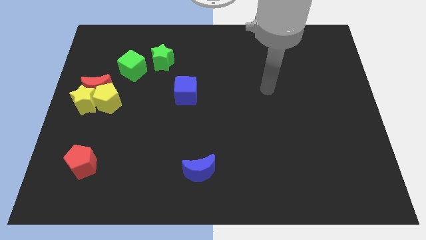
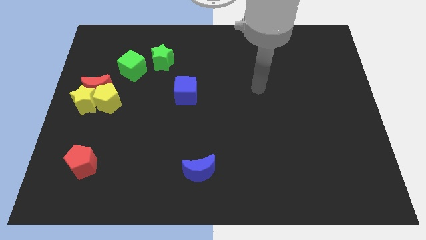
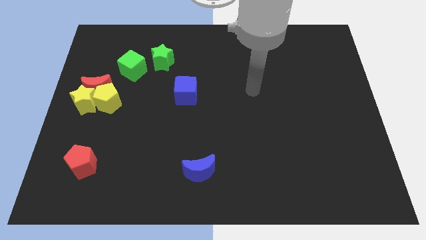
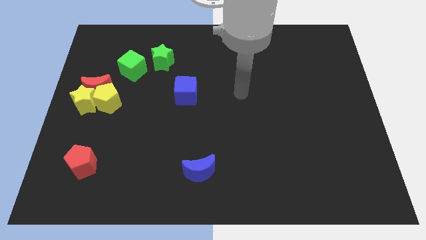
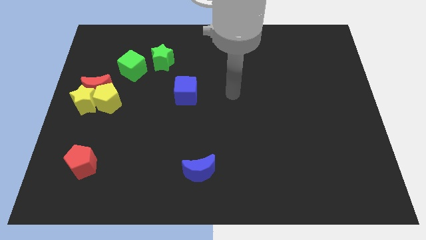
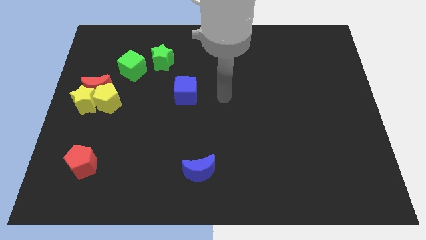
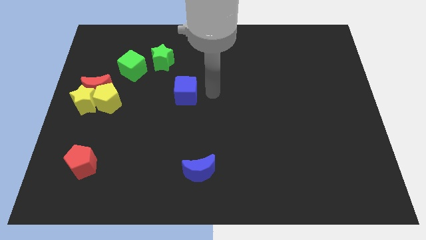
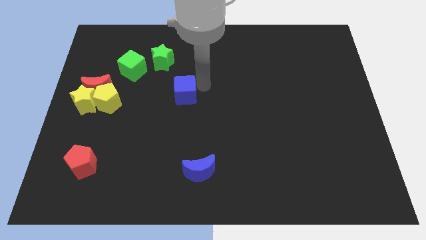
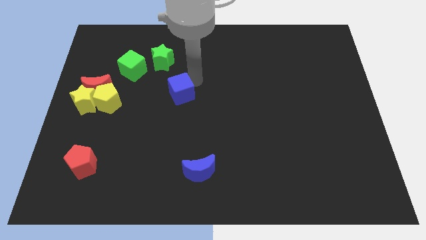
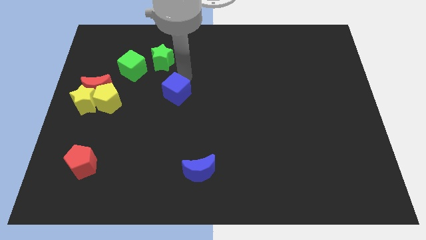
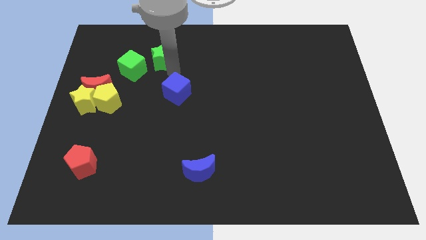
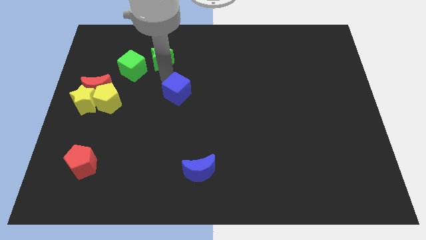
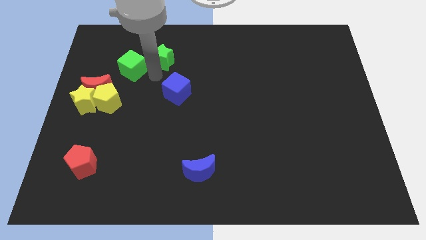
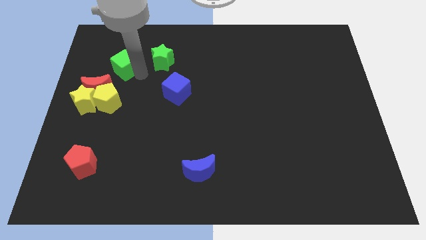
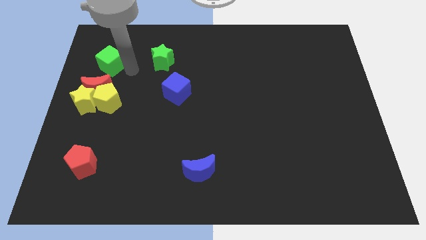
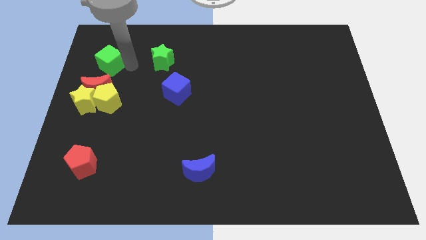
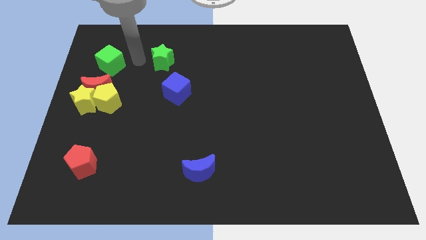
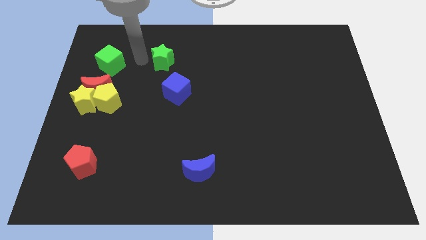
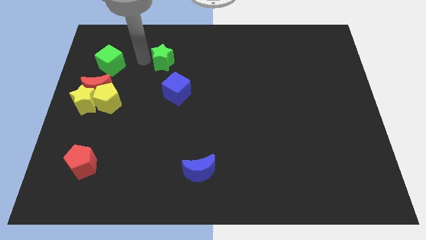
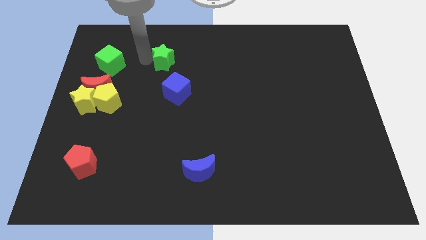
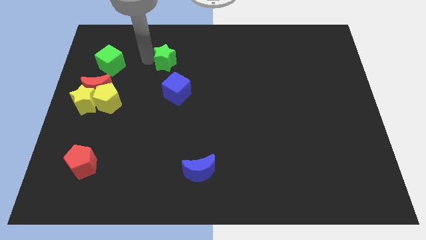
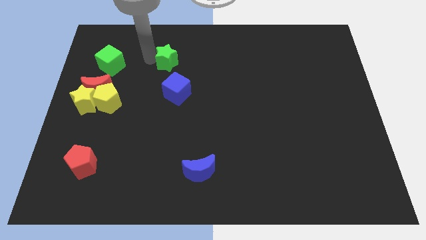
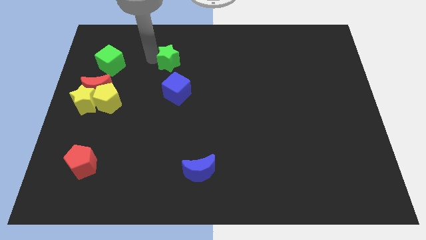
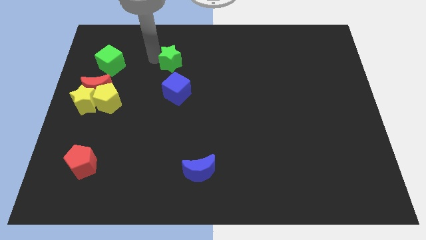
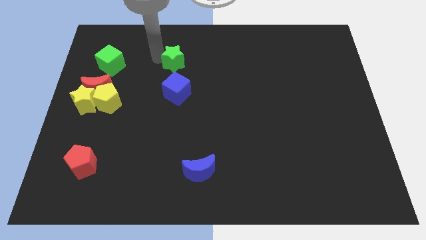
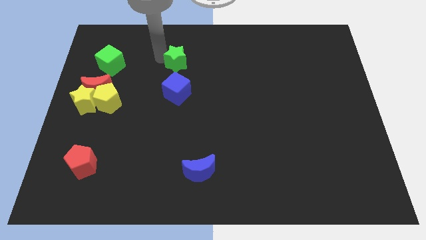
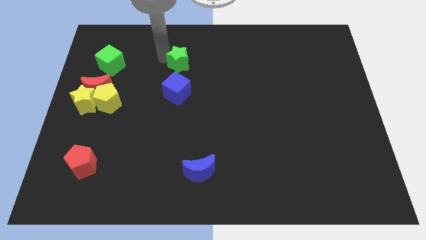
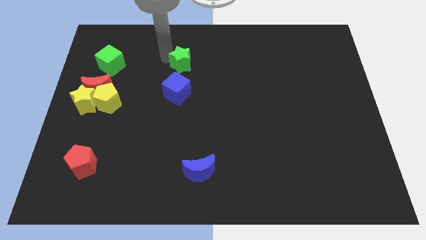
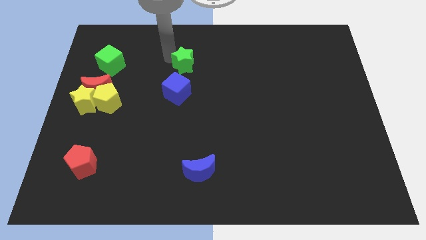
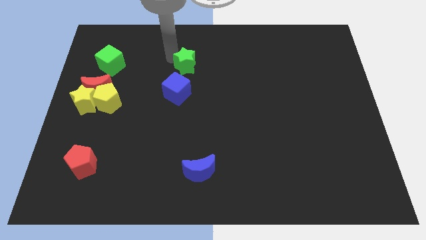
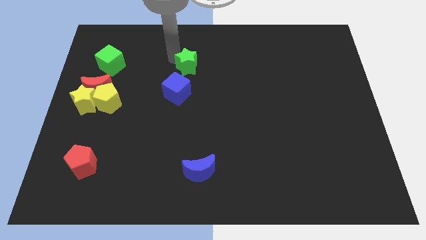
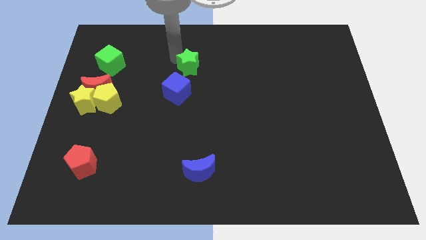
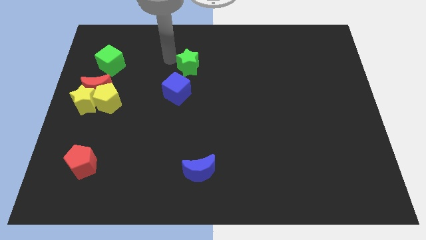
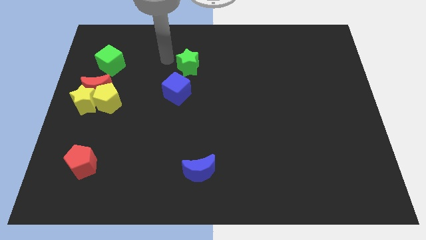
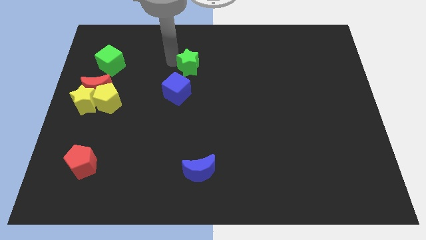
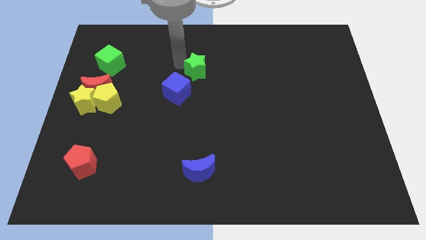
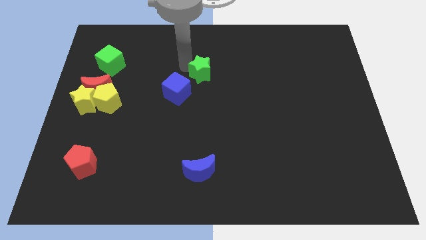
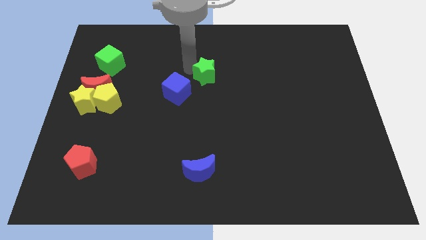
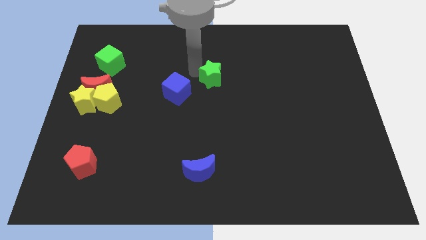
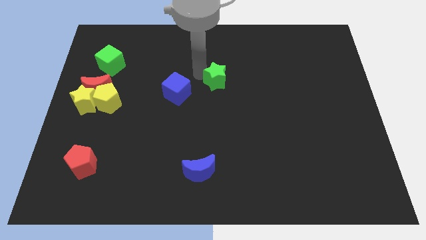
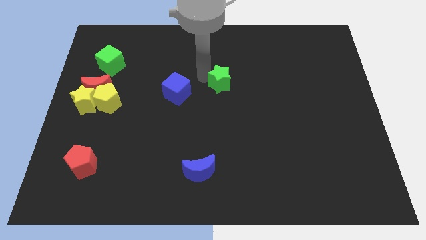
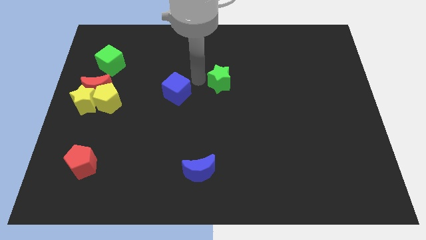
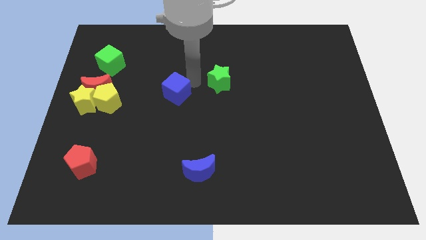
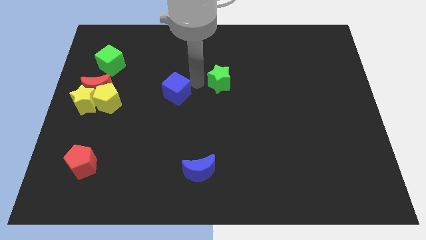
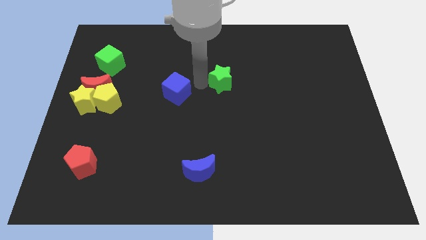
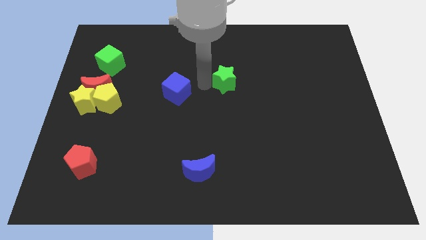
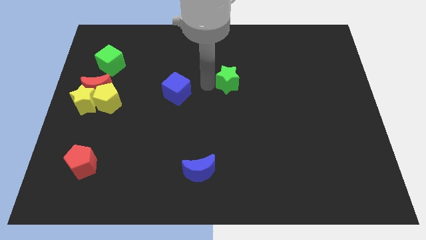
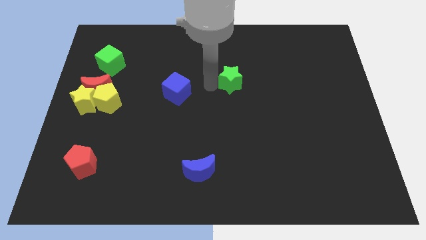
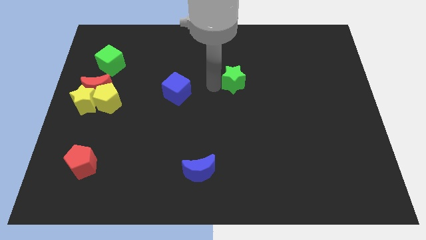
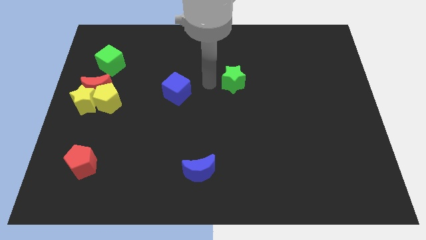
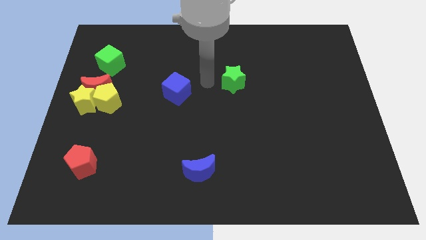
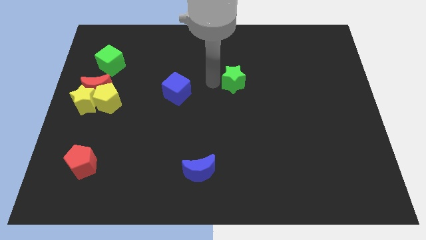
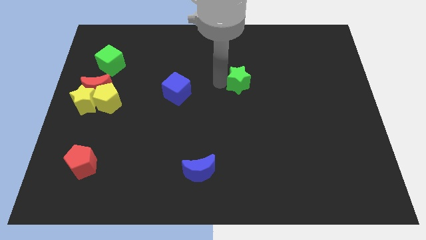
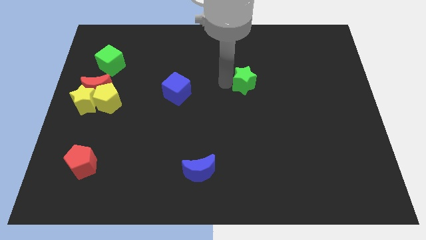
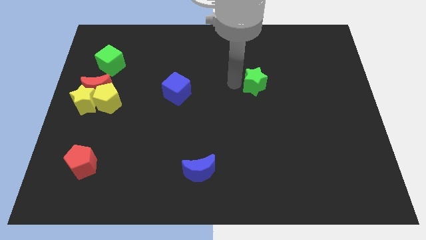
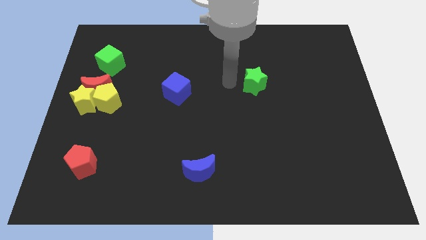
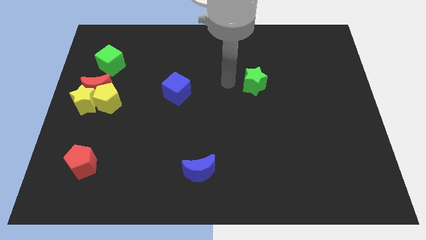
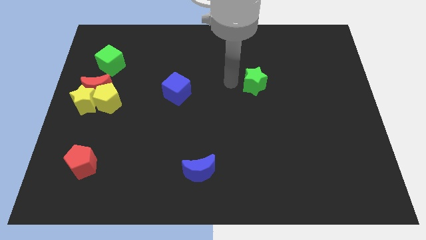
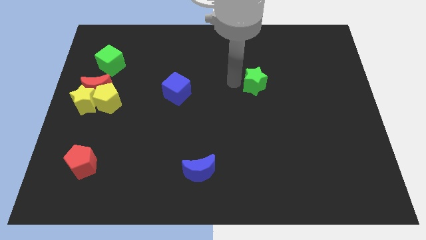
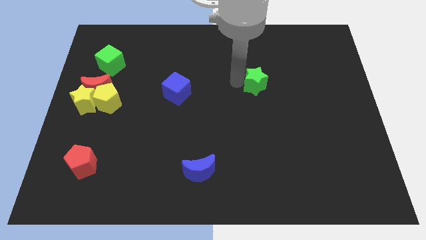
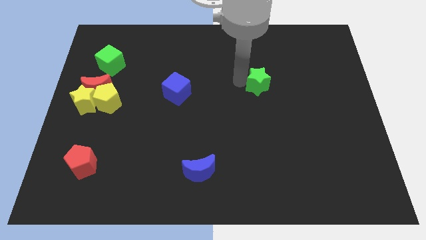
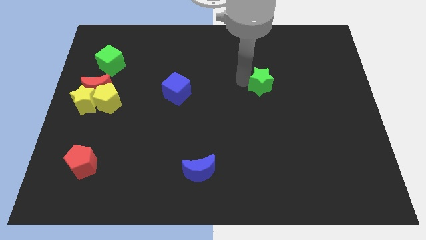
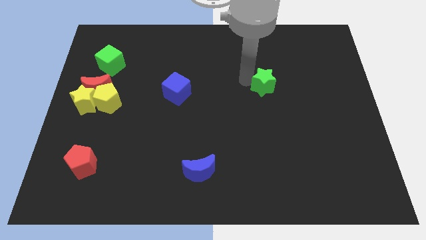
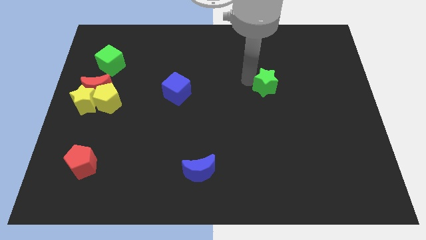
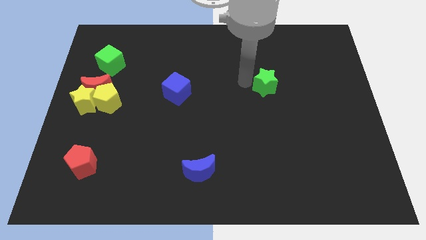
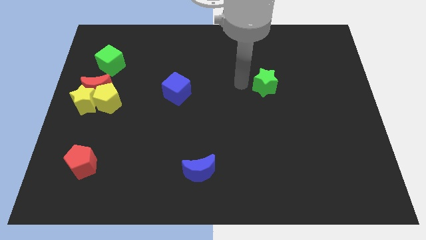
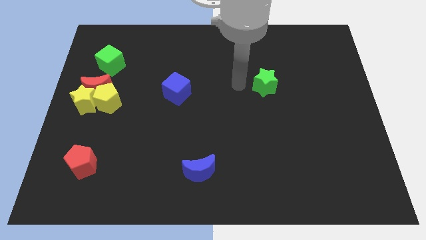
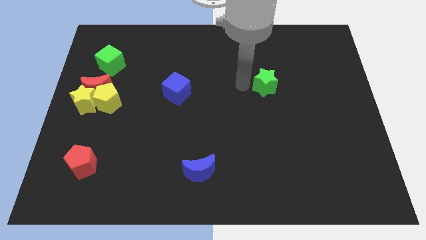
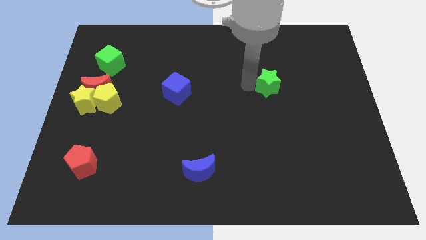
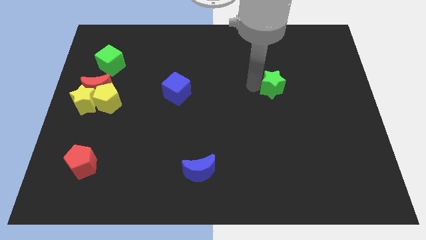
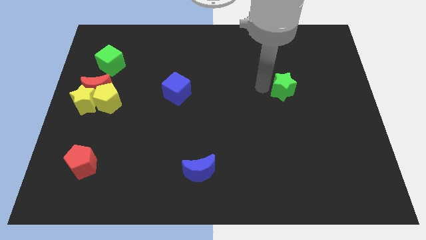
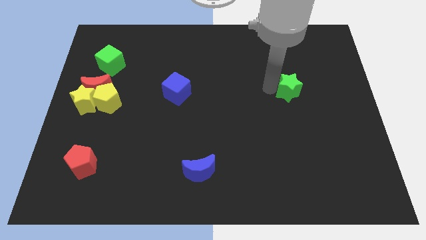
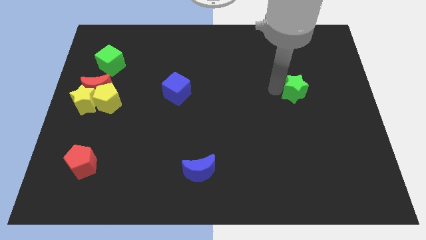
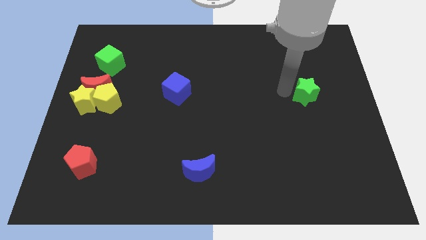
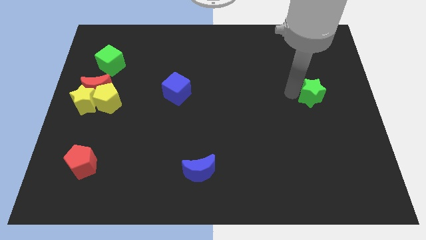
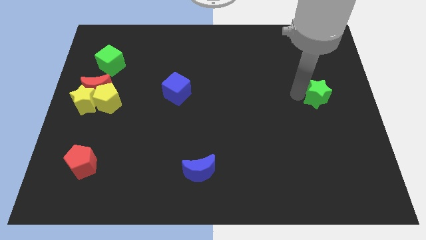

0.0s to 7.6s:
move the green star to the center right
